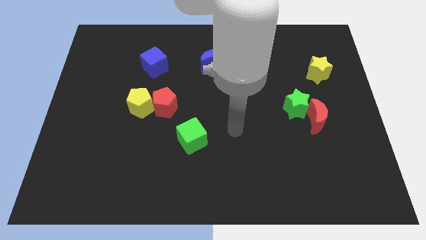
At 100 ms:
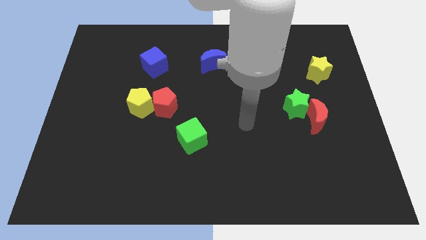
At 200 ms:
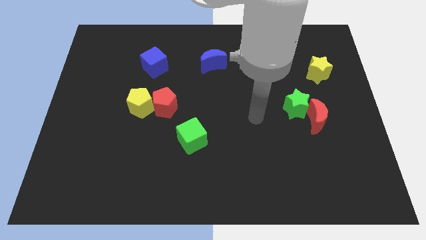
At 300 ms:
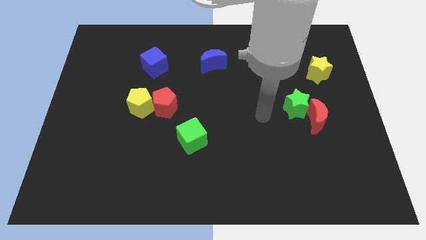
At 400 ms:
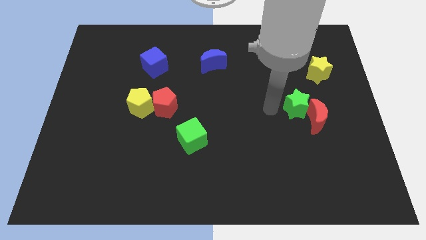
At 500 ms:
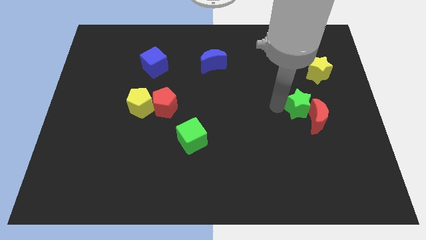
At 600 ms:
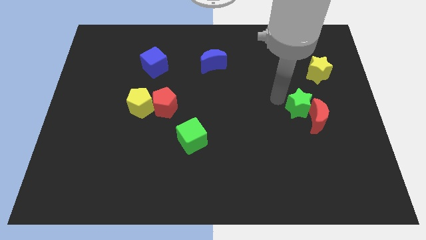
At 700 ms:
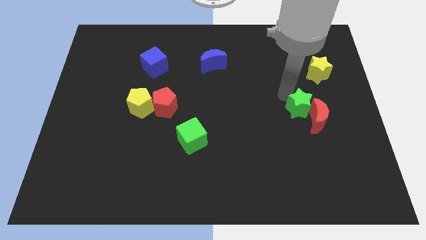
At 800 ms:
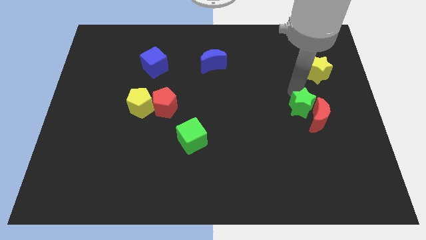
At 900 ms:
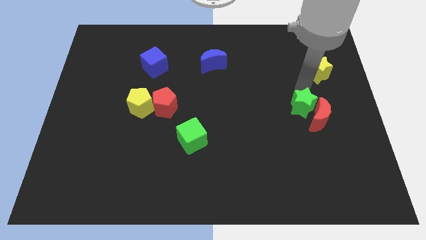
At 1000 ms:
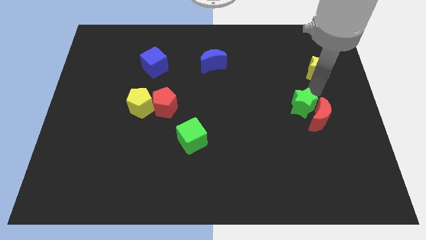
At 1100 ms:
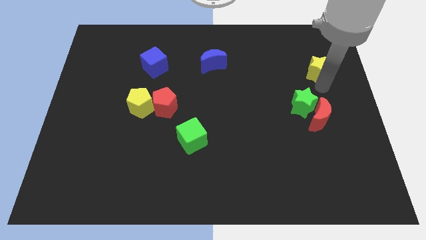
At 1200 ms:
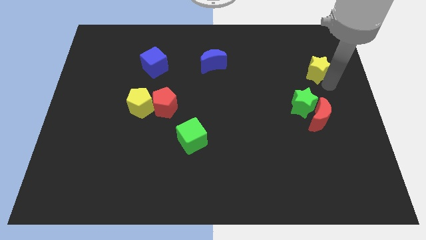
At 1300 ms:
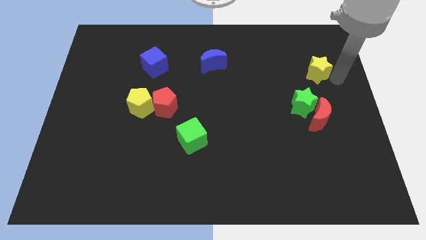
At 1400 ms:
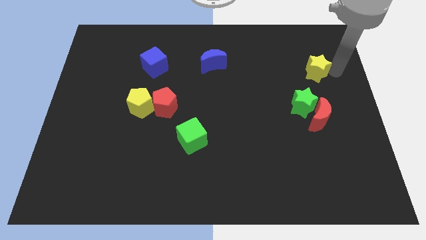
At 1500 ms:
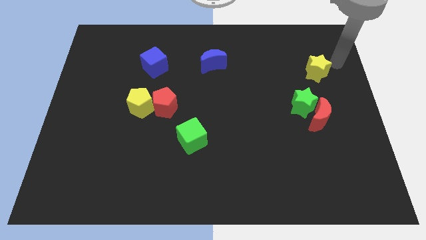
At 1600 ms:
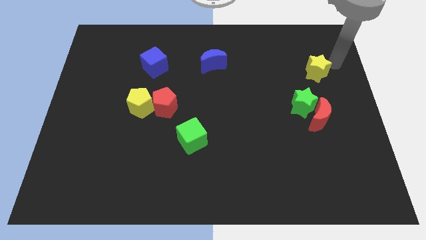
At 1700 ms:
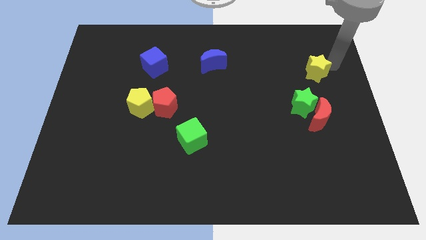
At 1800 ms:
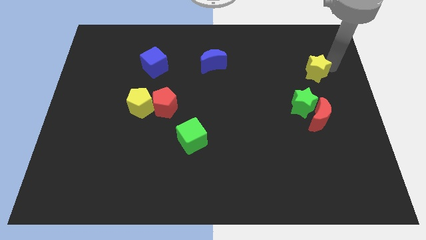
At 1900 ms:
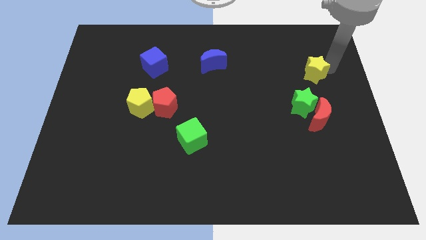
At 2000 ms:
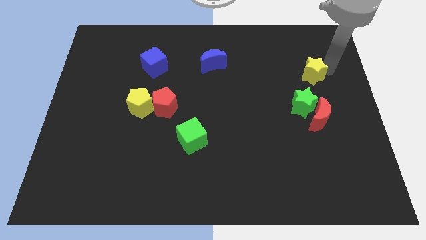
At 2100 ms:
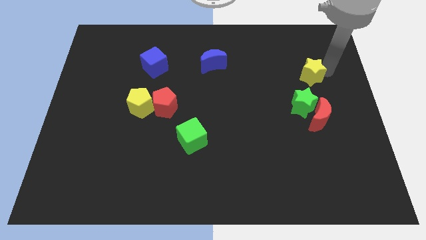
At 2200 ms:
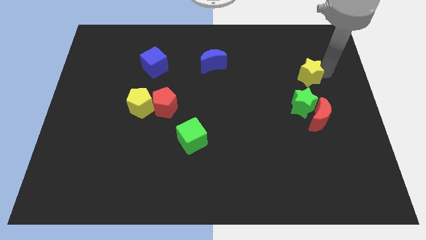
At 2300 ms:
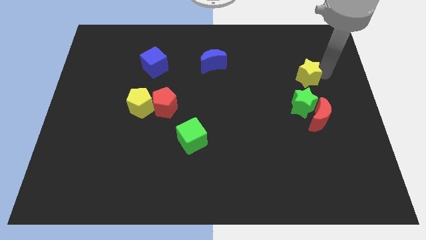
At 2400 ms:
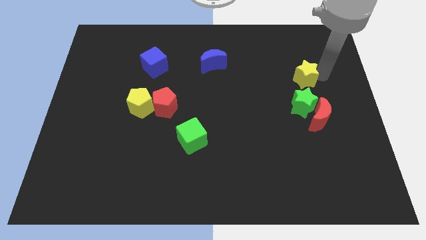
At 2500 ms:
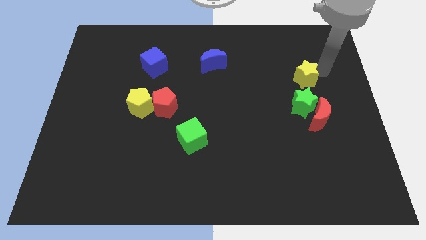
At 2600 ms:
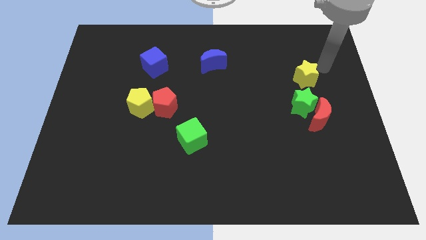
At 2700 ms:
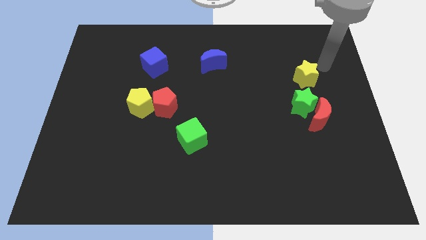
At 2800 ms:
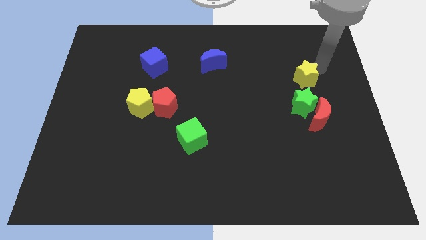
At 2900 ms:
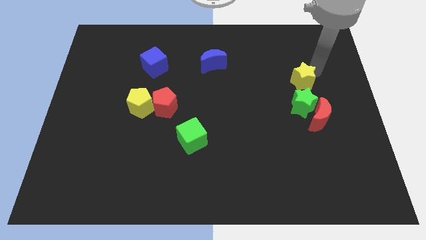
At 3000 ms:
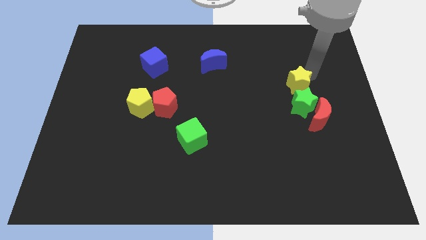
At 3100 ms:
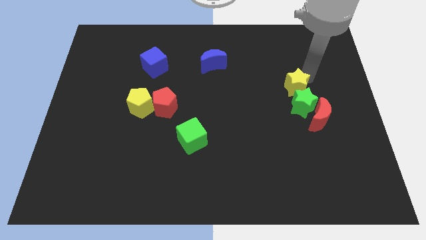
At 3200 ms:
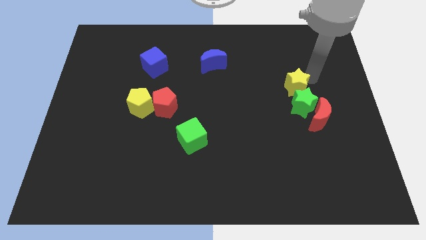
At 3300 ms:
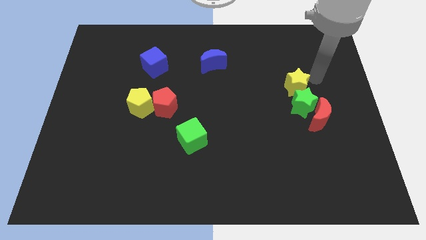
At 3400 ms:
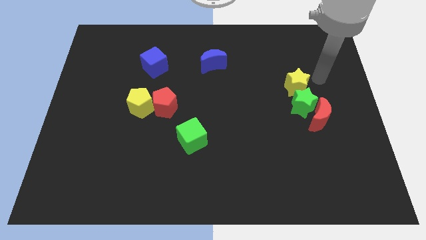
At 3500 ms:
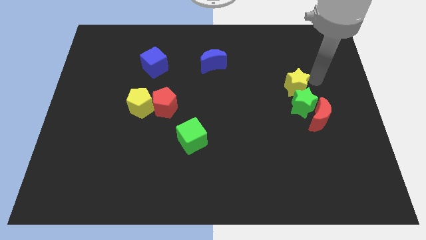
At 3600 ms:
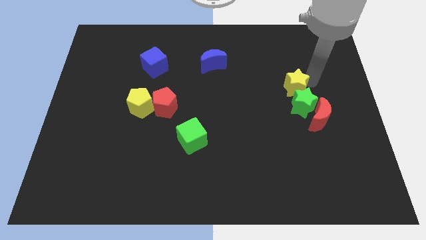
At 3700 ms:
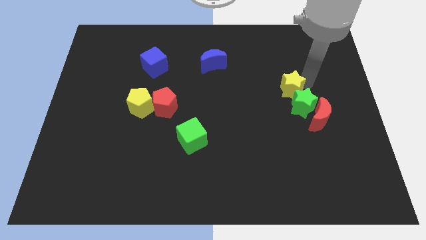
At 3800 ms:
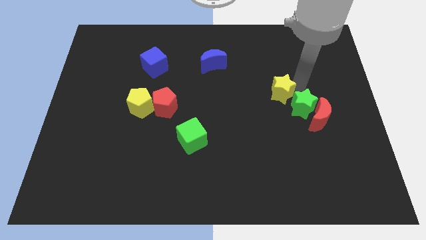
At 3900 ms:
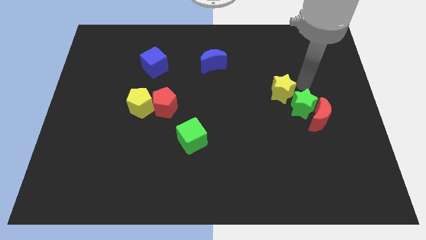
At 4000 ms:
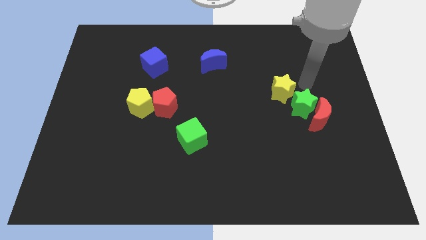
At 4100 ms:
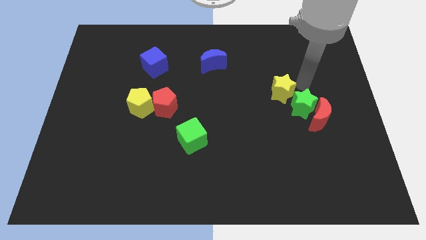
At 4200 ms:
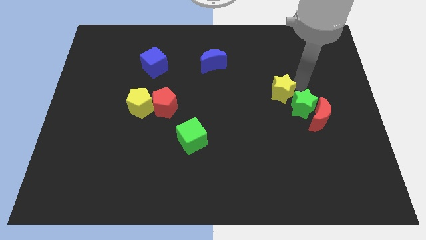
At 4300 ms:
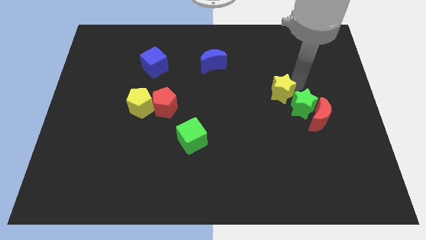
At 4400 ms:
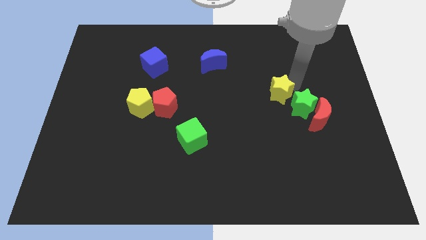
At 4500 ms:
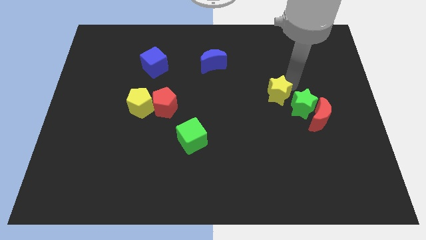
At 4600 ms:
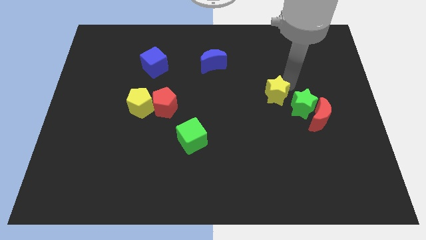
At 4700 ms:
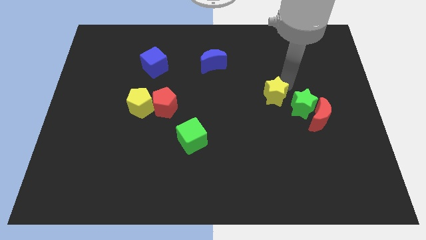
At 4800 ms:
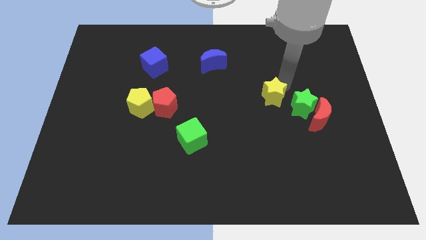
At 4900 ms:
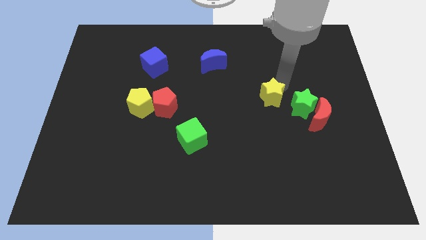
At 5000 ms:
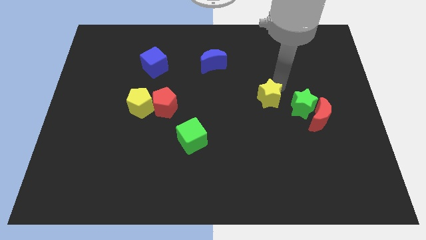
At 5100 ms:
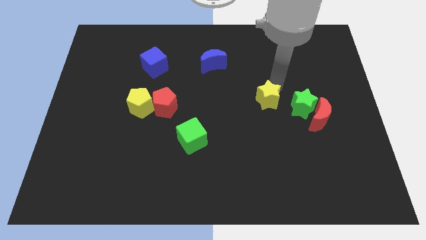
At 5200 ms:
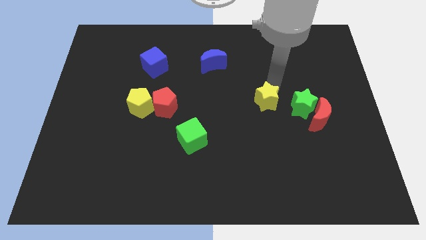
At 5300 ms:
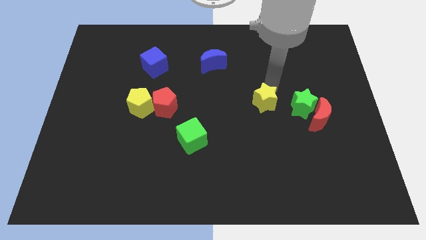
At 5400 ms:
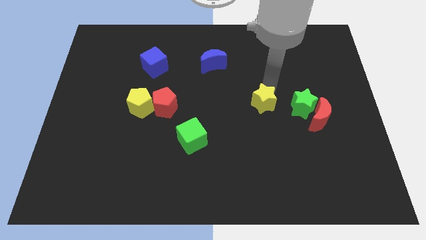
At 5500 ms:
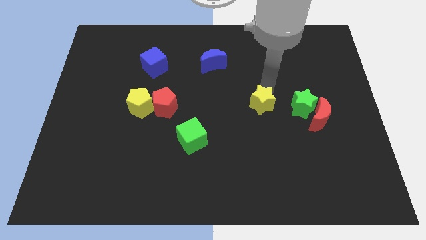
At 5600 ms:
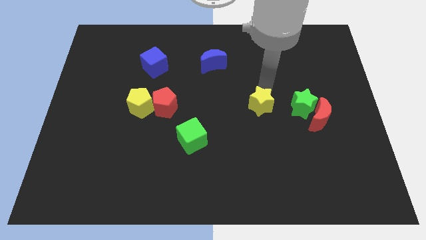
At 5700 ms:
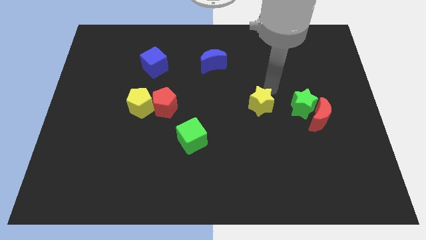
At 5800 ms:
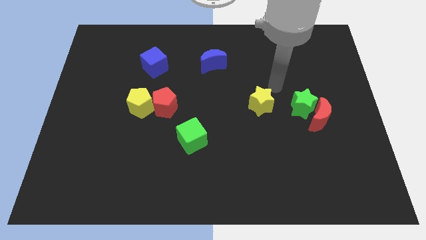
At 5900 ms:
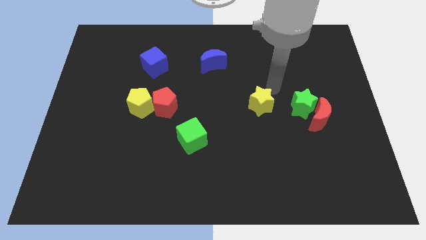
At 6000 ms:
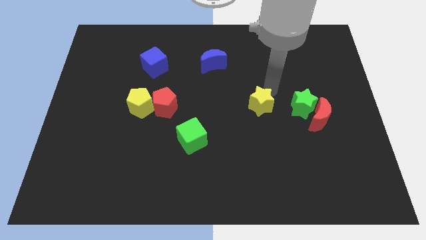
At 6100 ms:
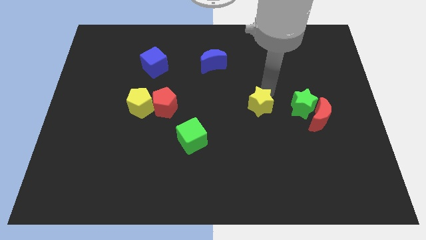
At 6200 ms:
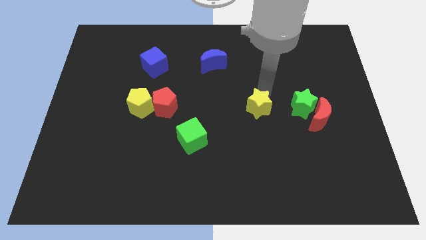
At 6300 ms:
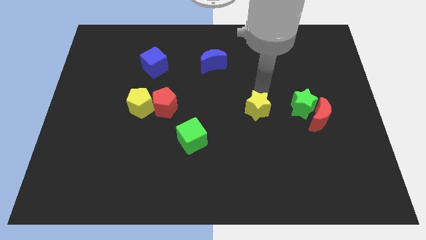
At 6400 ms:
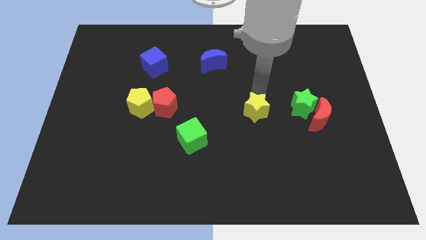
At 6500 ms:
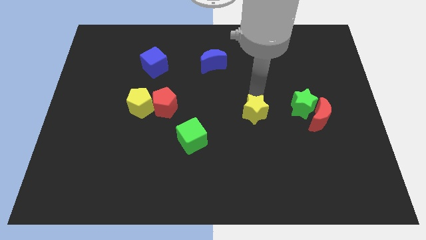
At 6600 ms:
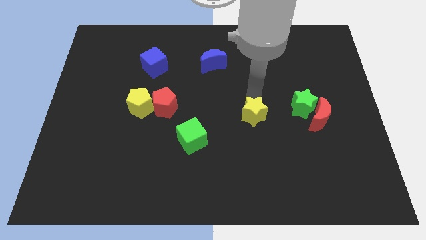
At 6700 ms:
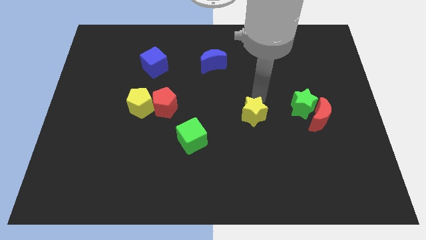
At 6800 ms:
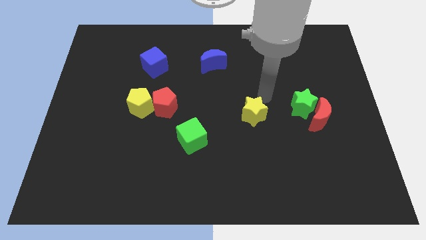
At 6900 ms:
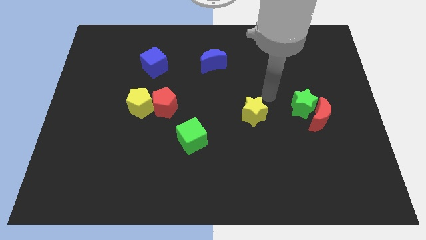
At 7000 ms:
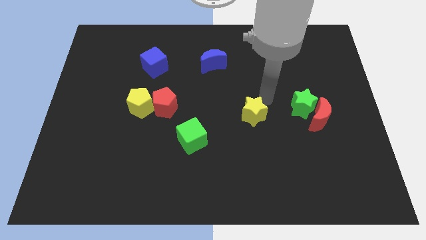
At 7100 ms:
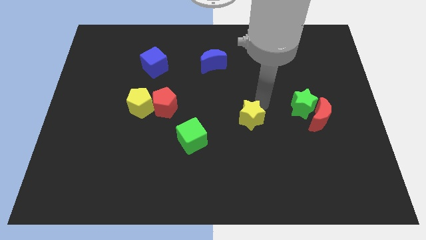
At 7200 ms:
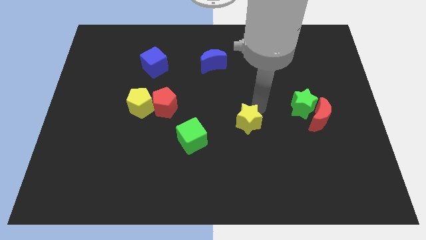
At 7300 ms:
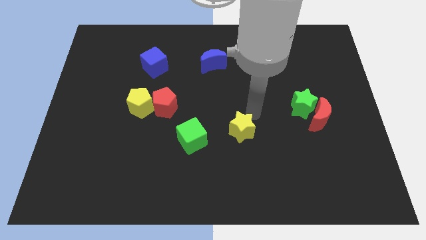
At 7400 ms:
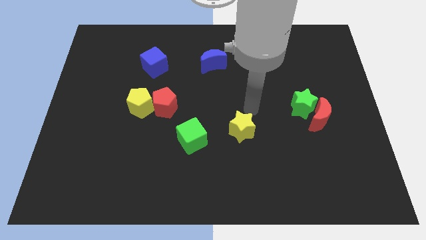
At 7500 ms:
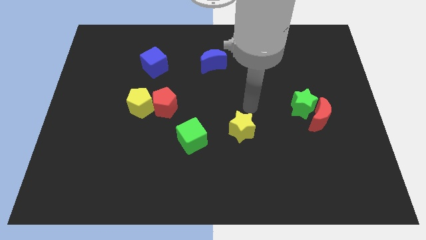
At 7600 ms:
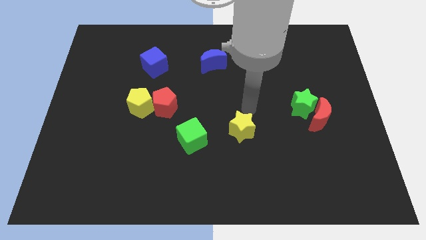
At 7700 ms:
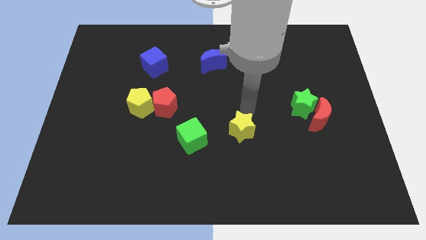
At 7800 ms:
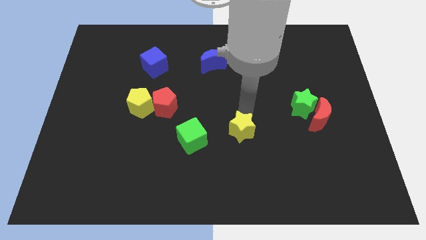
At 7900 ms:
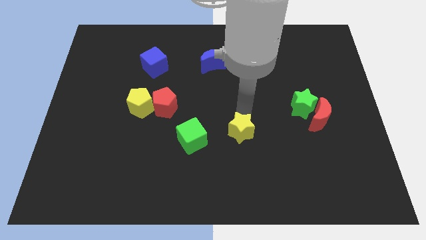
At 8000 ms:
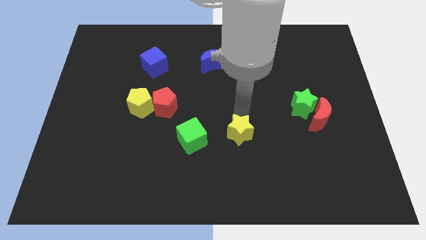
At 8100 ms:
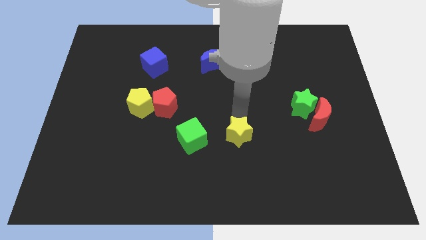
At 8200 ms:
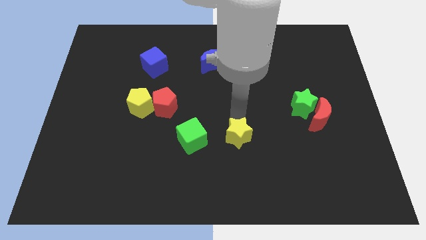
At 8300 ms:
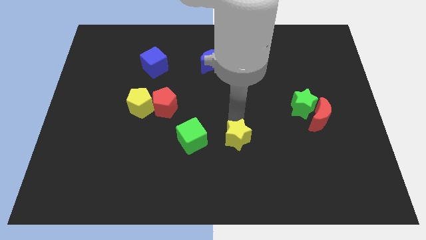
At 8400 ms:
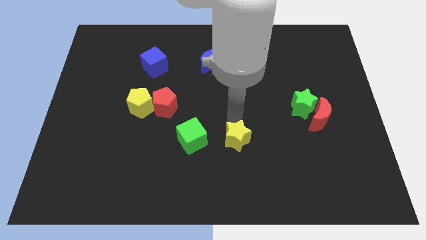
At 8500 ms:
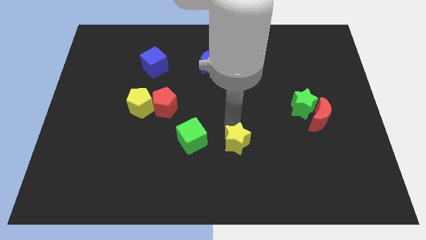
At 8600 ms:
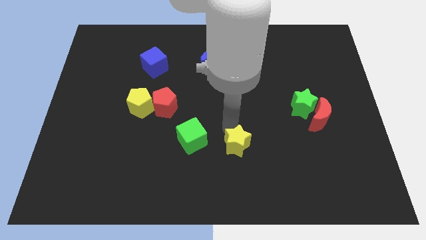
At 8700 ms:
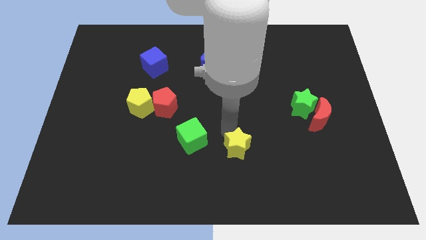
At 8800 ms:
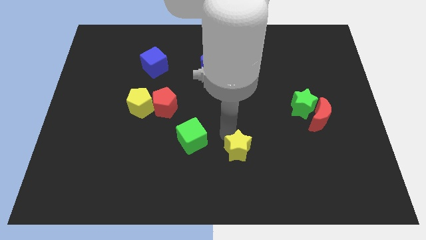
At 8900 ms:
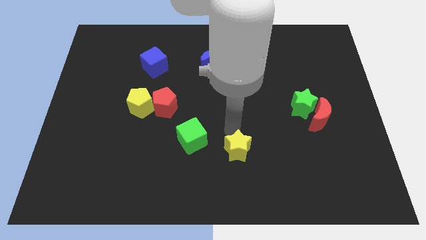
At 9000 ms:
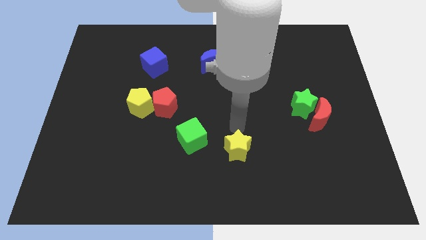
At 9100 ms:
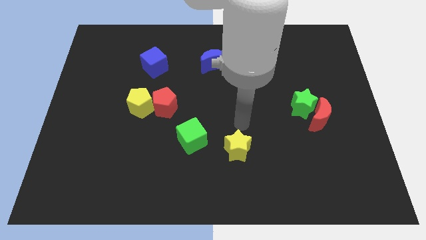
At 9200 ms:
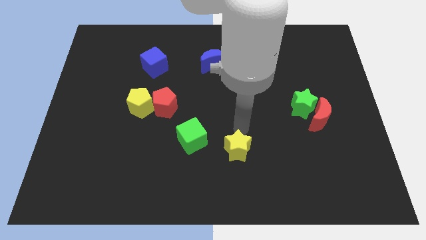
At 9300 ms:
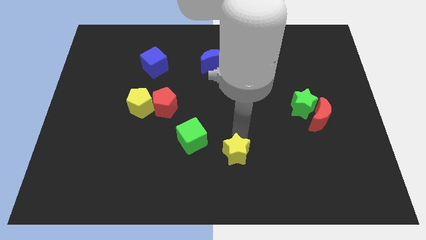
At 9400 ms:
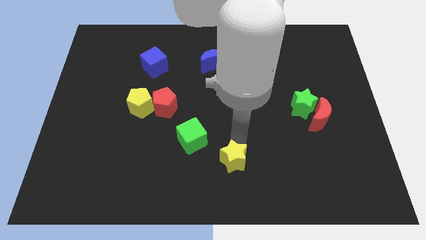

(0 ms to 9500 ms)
push the yellow star to the bottom side
